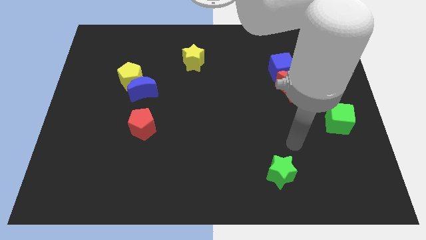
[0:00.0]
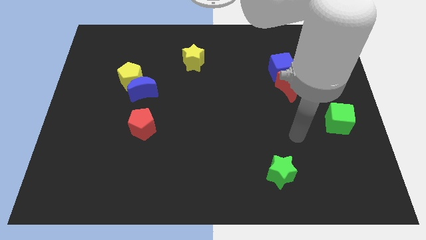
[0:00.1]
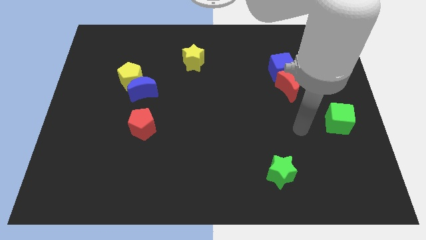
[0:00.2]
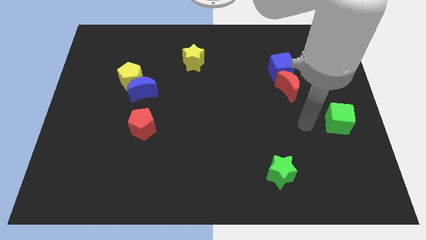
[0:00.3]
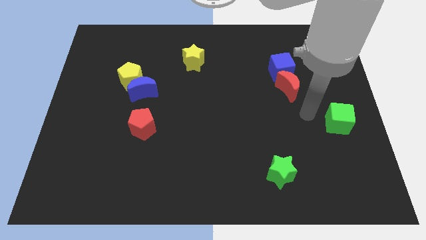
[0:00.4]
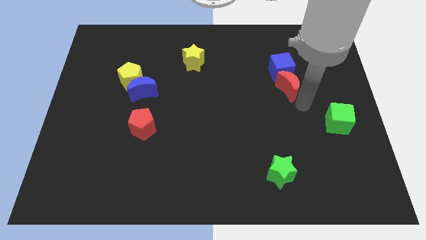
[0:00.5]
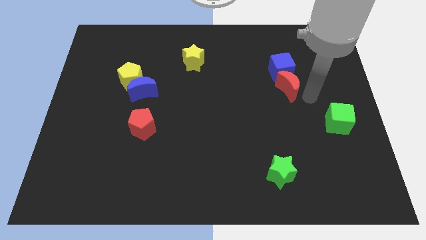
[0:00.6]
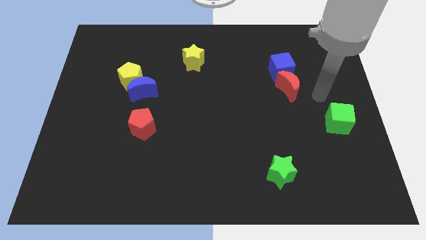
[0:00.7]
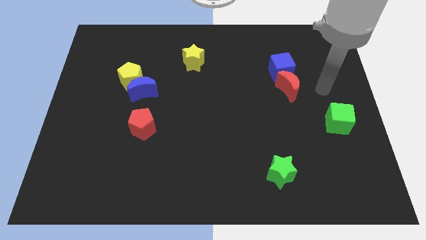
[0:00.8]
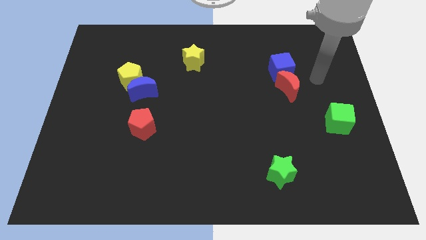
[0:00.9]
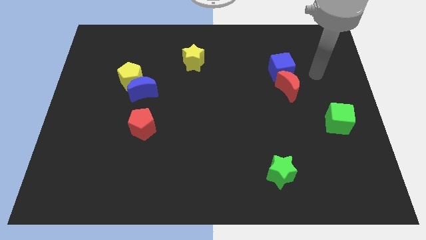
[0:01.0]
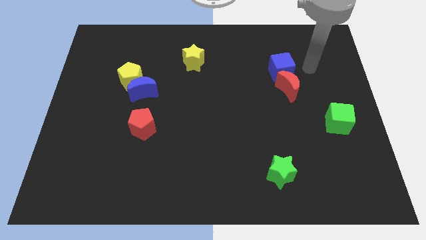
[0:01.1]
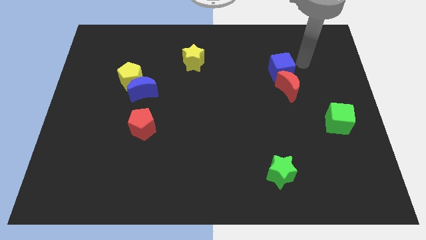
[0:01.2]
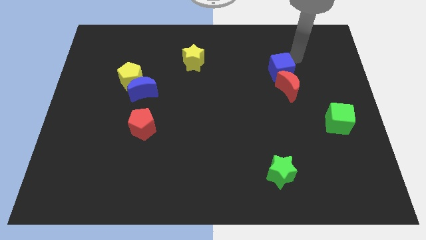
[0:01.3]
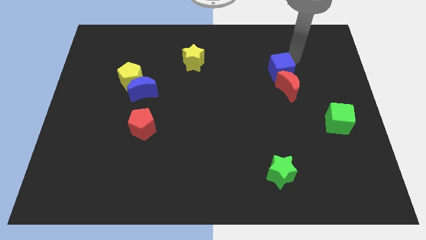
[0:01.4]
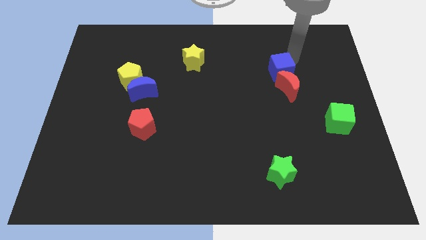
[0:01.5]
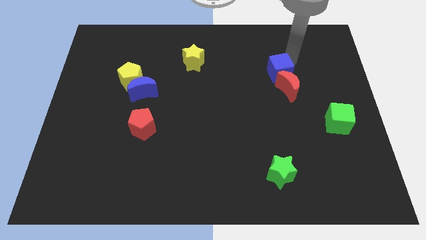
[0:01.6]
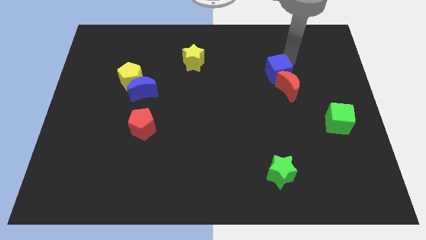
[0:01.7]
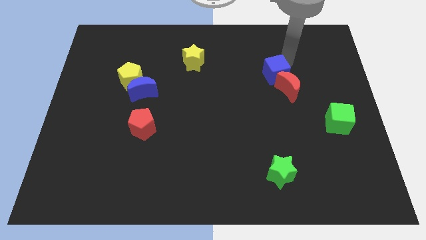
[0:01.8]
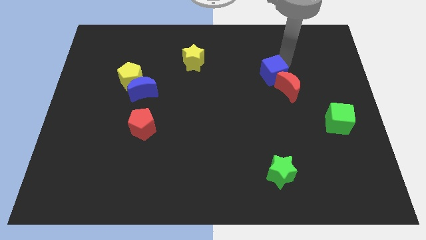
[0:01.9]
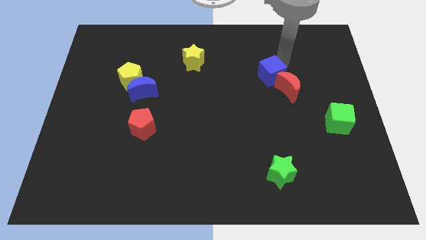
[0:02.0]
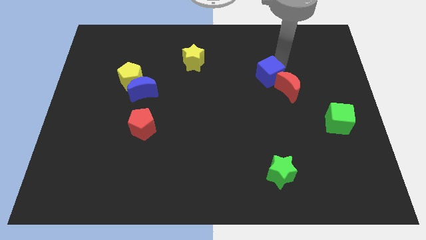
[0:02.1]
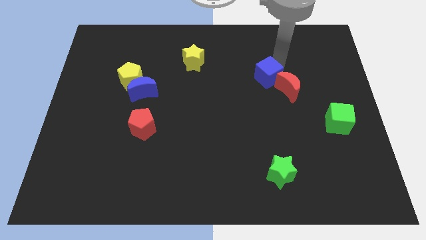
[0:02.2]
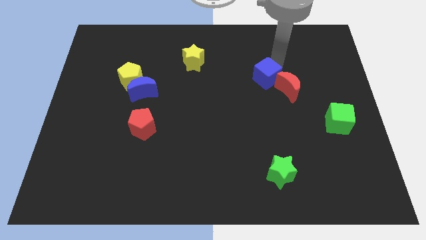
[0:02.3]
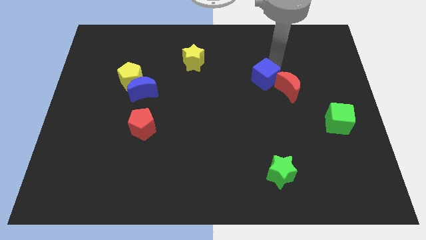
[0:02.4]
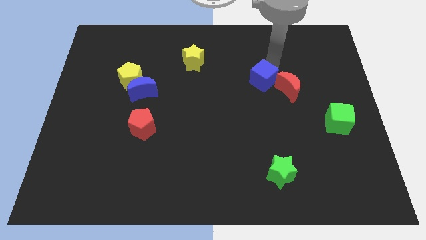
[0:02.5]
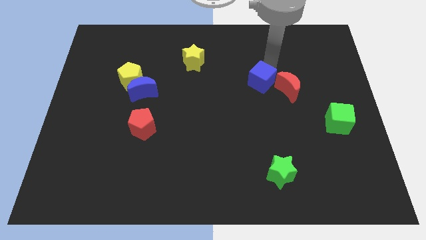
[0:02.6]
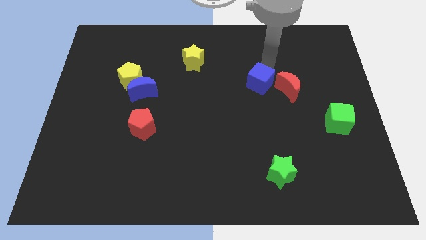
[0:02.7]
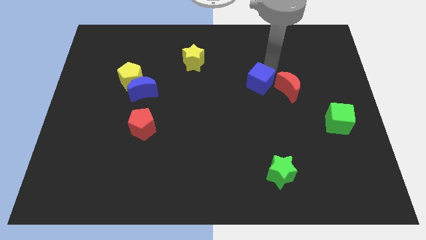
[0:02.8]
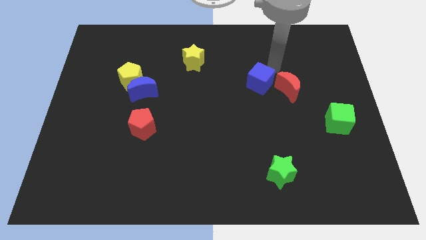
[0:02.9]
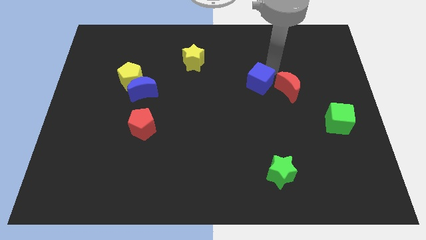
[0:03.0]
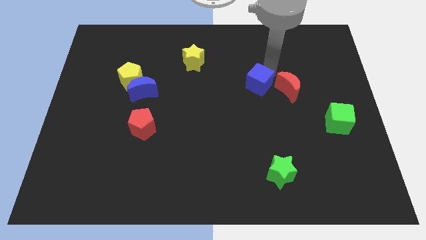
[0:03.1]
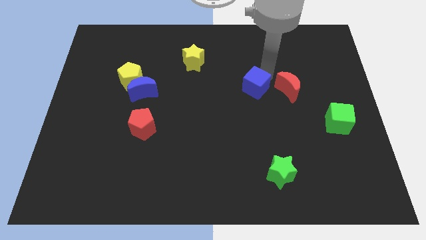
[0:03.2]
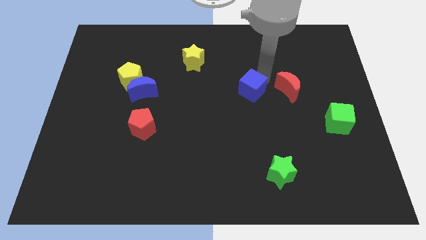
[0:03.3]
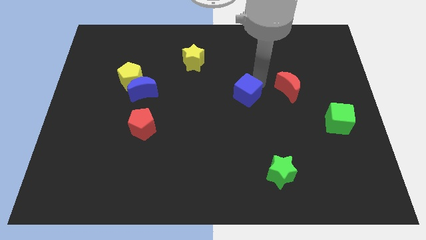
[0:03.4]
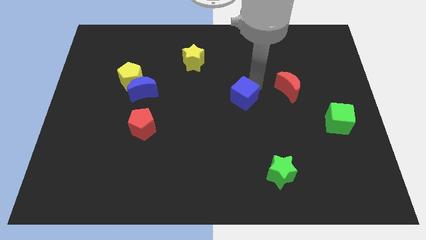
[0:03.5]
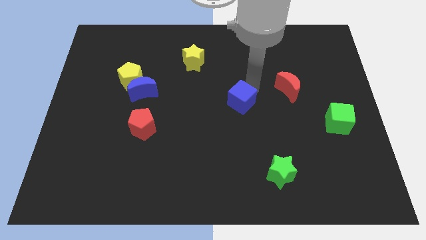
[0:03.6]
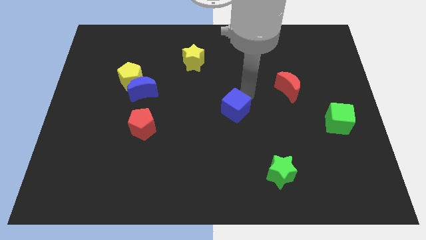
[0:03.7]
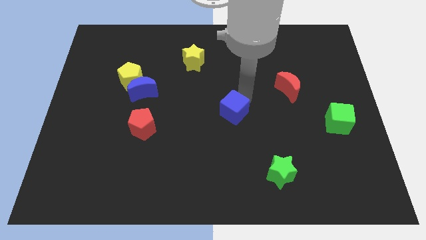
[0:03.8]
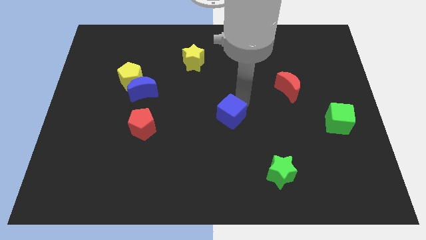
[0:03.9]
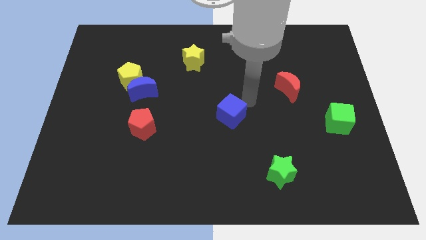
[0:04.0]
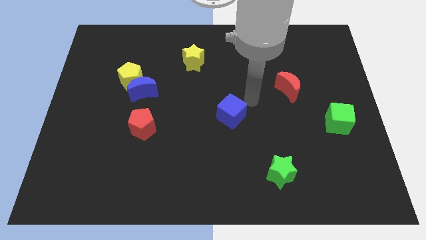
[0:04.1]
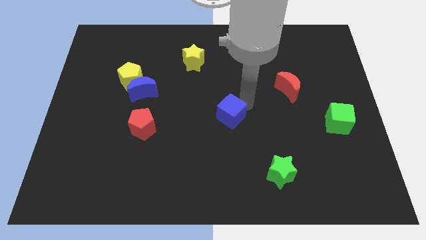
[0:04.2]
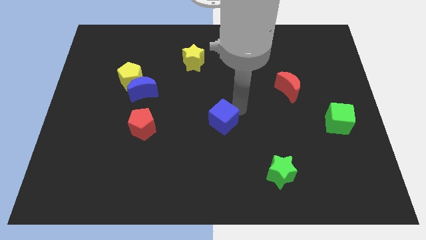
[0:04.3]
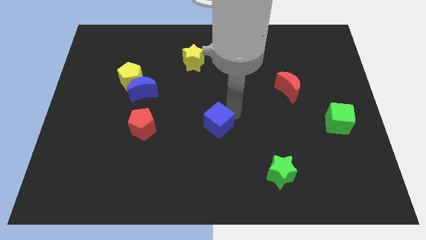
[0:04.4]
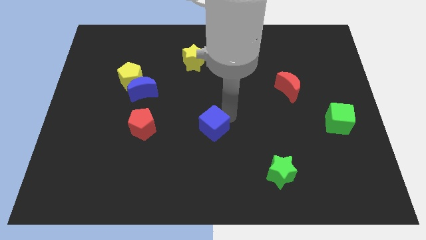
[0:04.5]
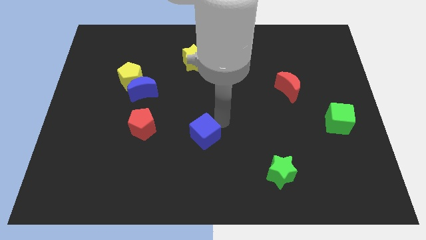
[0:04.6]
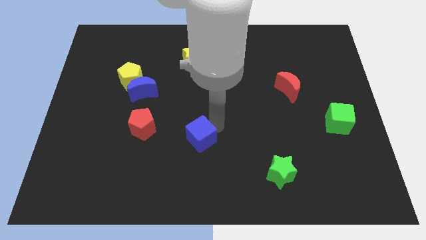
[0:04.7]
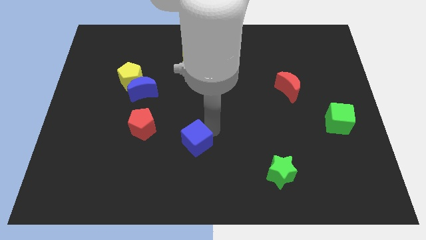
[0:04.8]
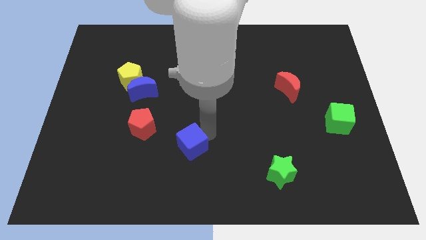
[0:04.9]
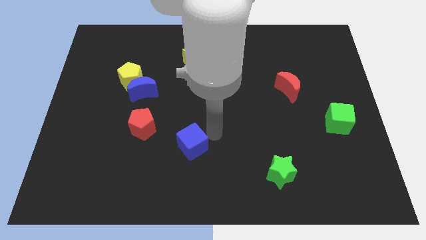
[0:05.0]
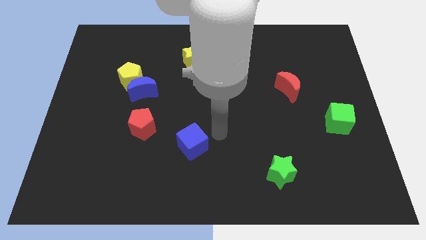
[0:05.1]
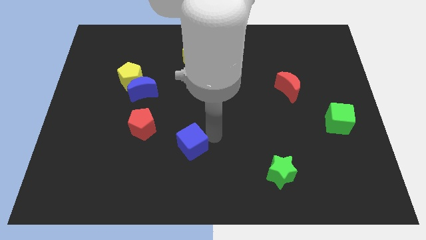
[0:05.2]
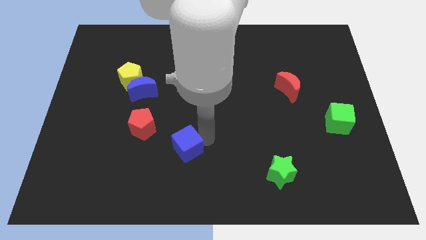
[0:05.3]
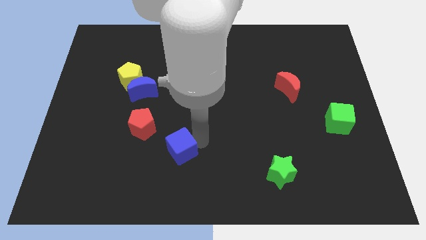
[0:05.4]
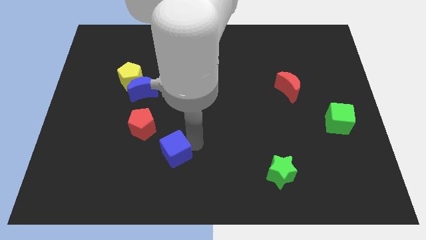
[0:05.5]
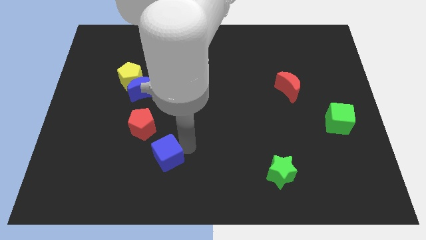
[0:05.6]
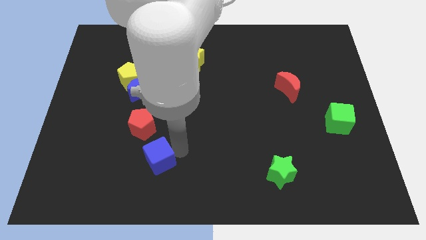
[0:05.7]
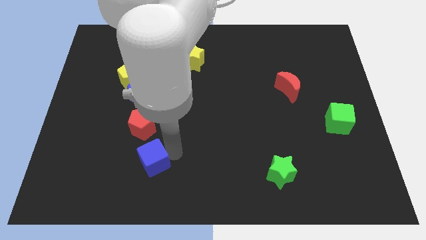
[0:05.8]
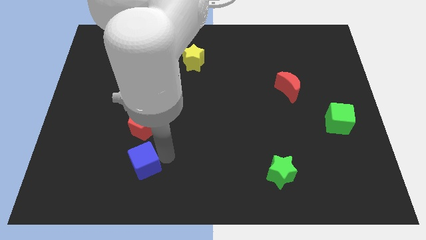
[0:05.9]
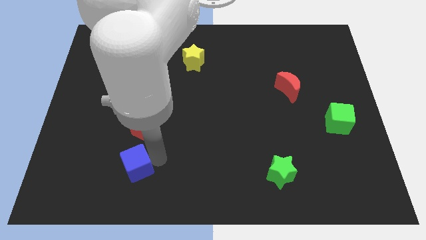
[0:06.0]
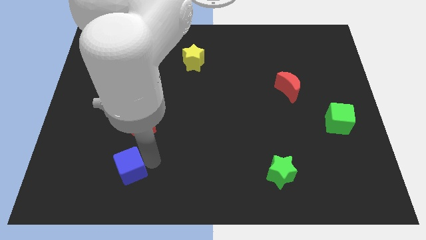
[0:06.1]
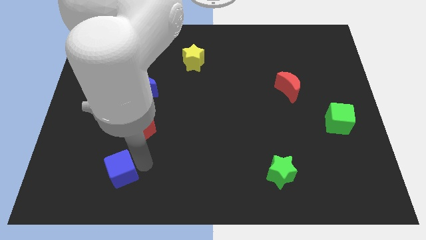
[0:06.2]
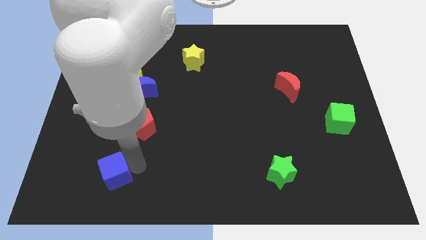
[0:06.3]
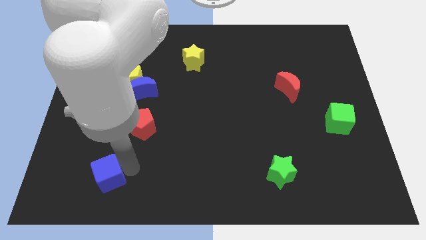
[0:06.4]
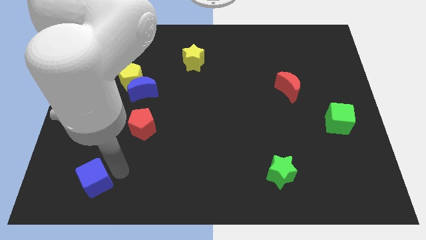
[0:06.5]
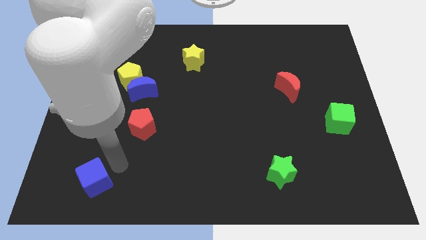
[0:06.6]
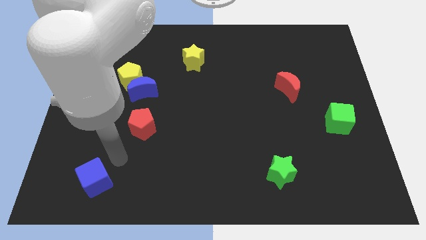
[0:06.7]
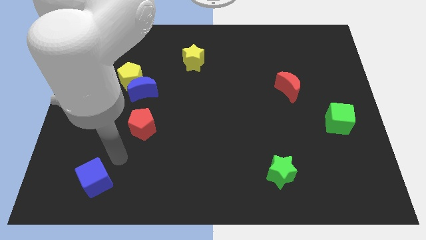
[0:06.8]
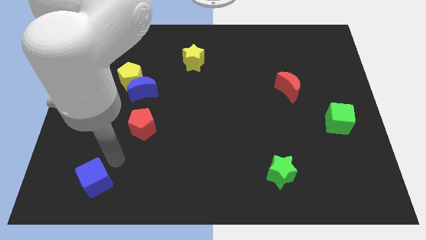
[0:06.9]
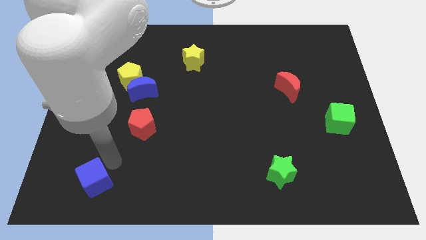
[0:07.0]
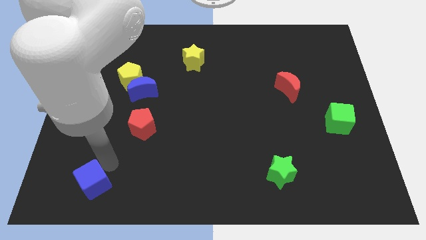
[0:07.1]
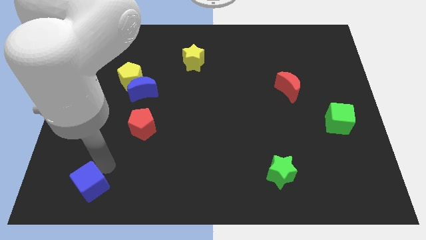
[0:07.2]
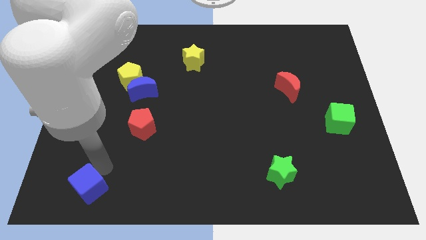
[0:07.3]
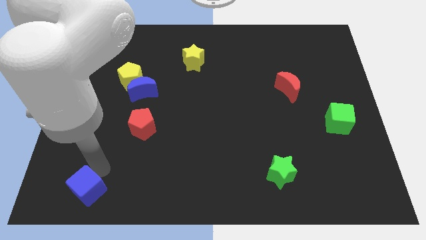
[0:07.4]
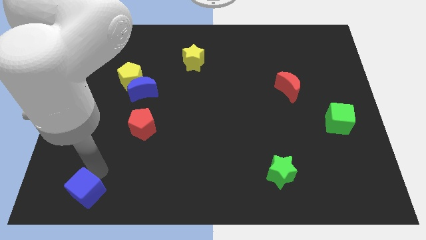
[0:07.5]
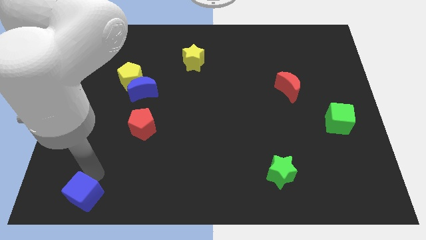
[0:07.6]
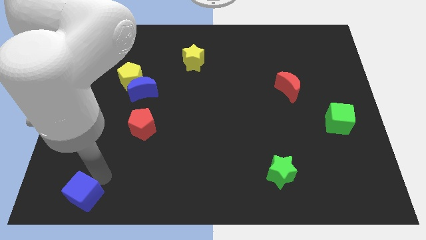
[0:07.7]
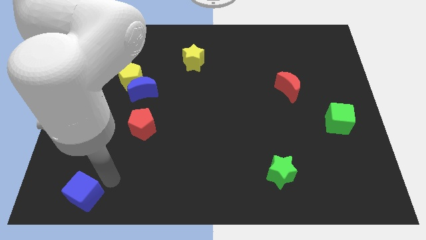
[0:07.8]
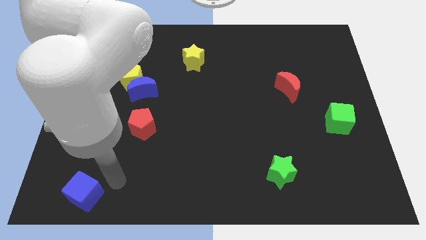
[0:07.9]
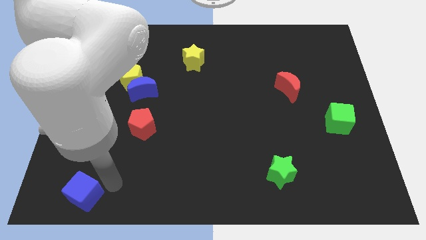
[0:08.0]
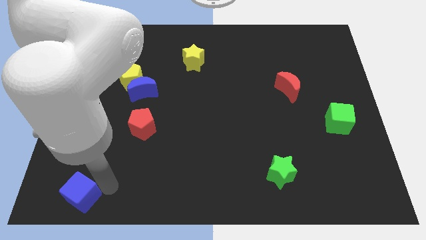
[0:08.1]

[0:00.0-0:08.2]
put the blue cube to the bottom left of the board
